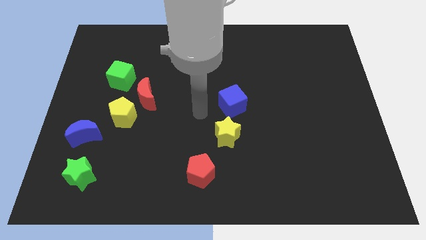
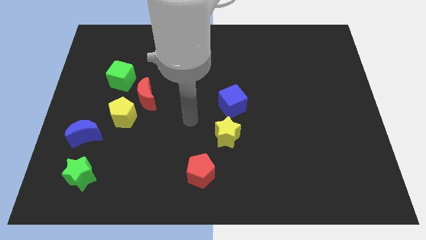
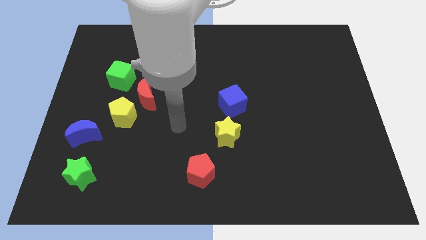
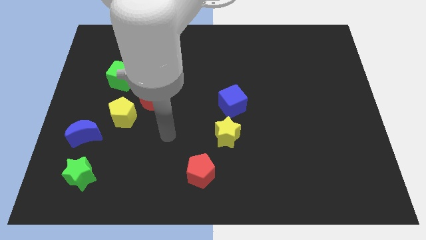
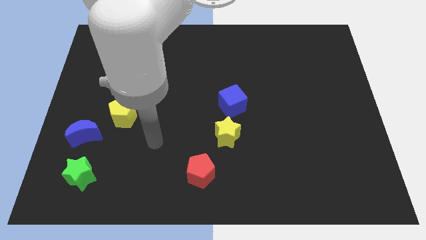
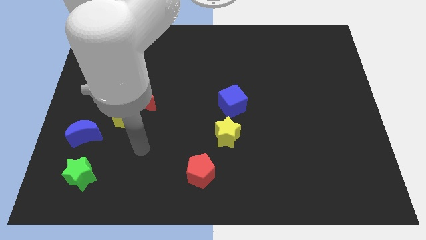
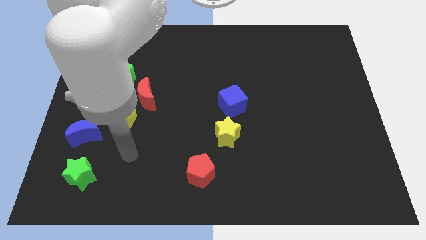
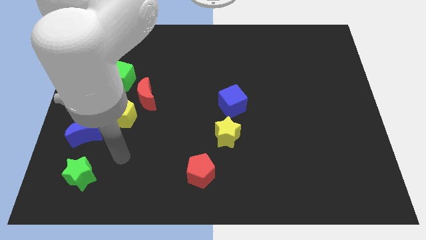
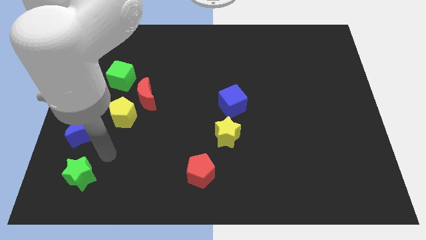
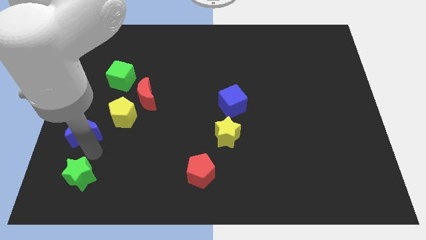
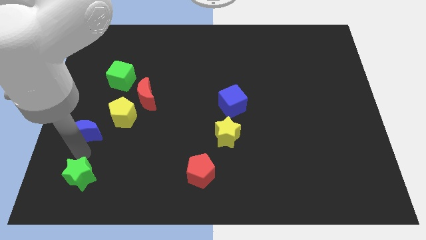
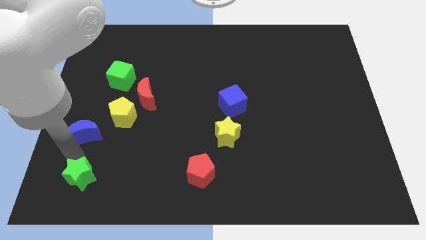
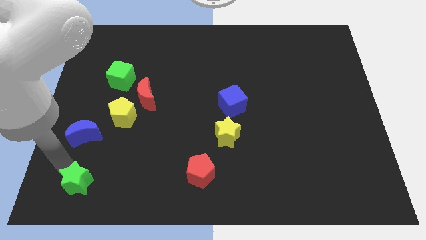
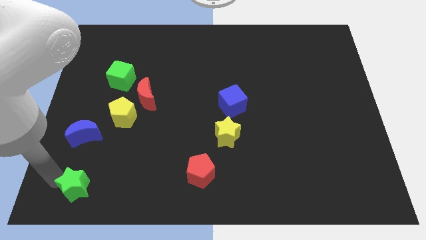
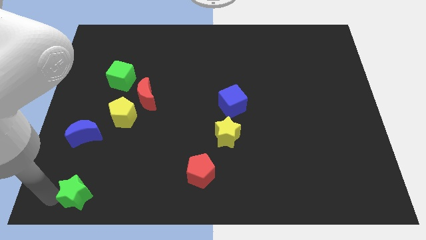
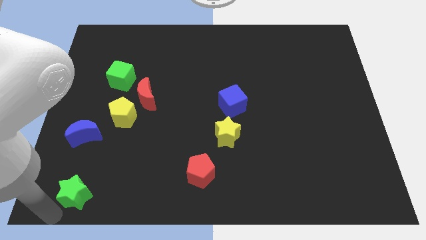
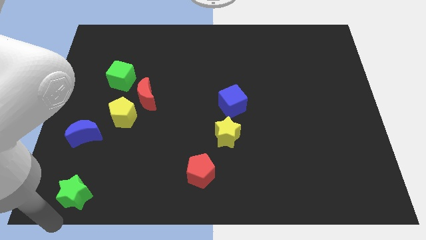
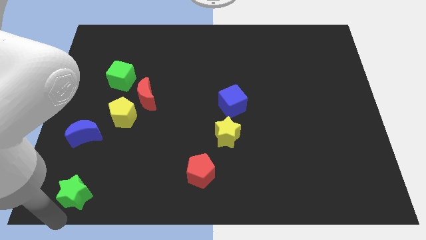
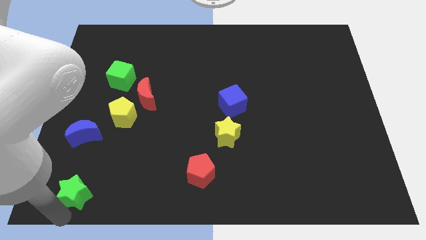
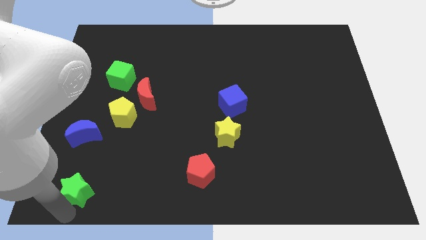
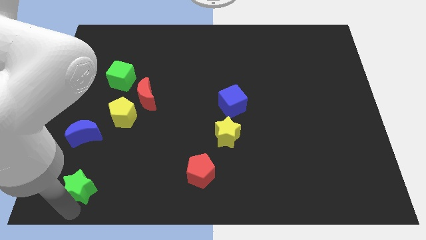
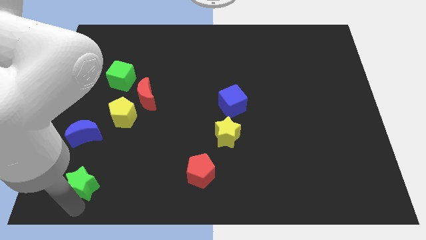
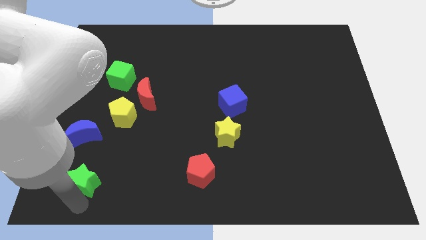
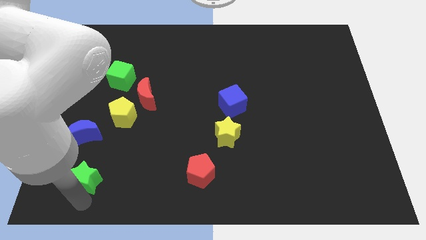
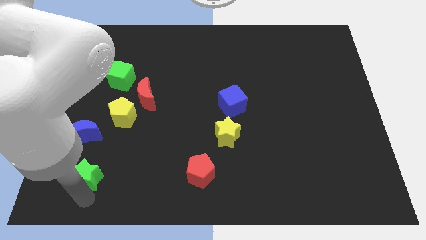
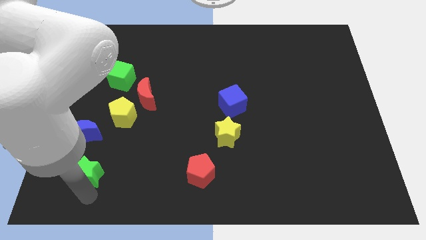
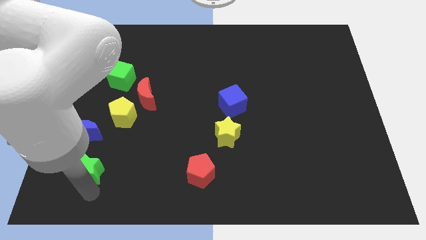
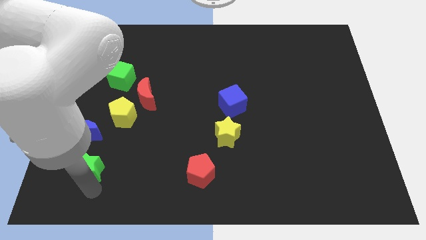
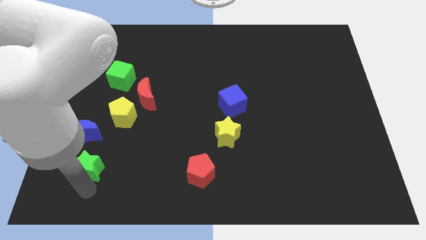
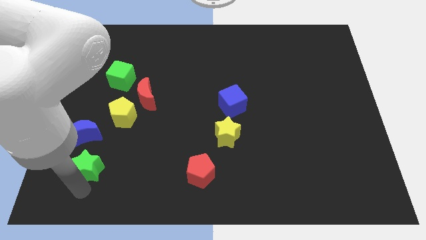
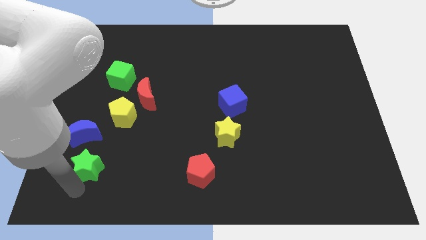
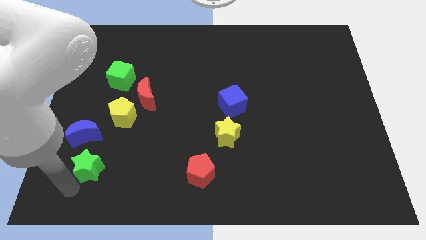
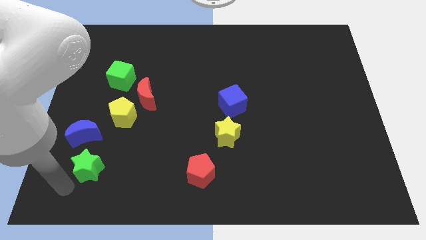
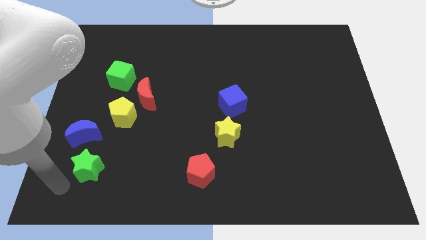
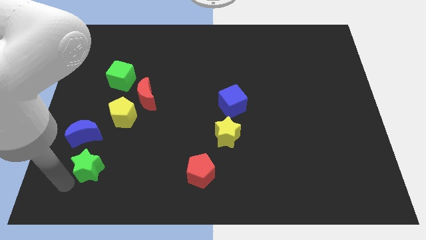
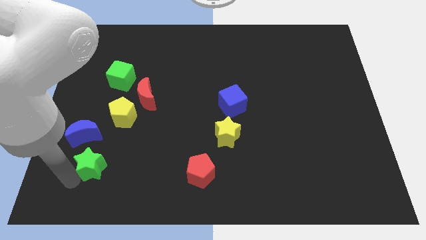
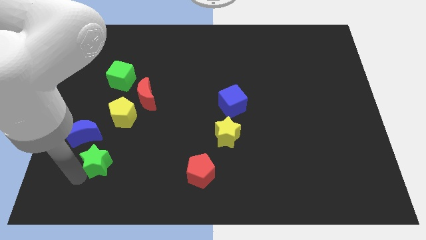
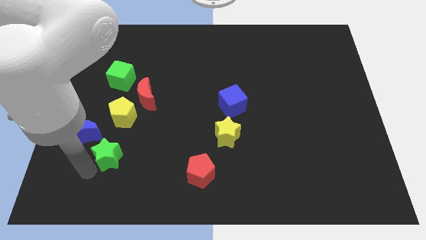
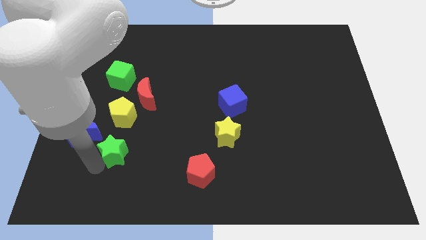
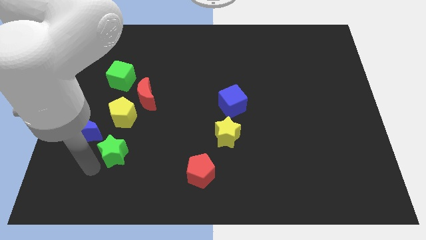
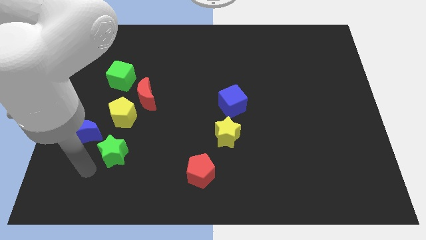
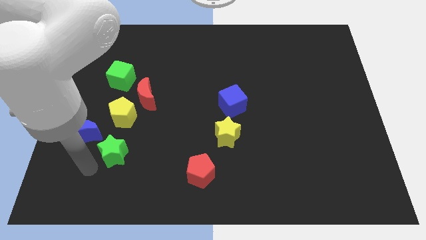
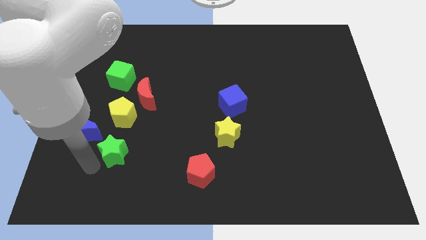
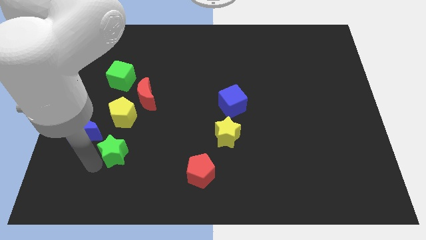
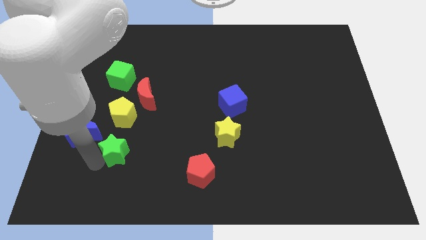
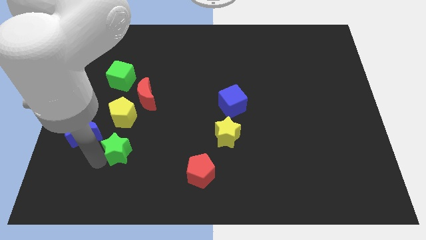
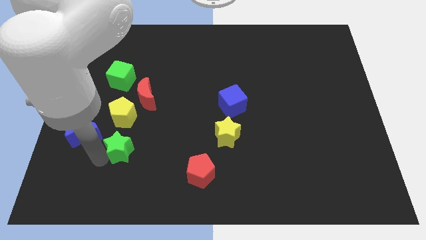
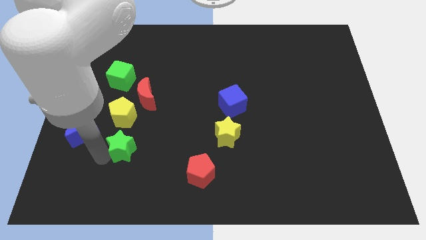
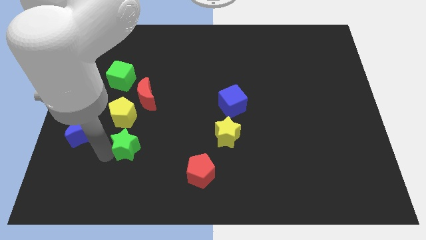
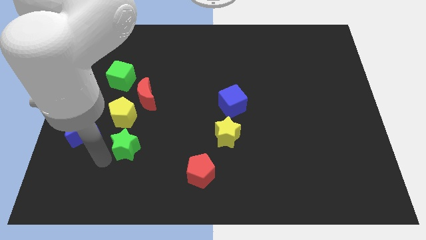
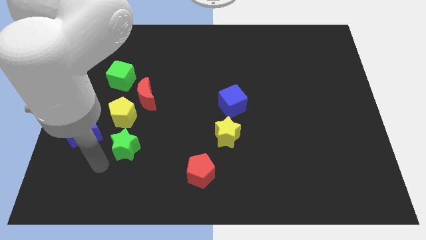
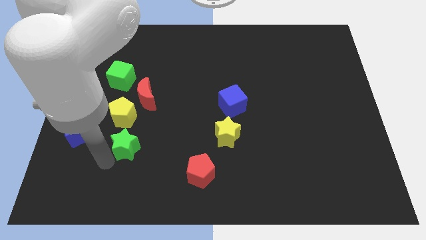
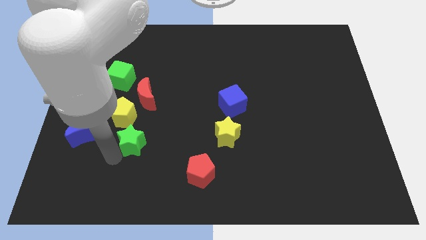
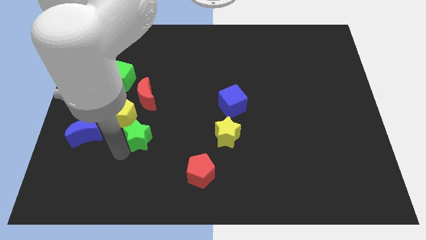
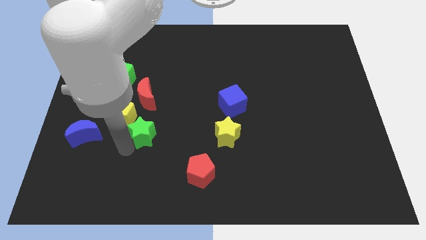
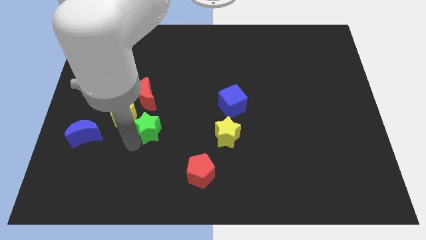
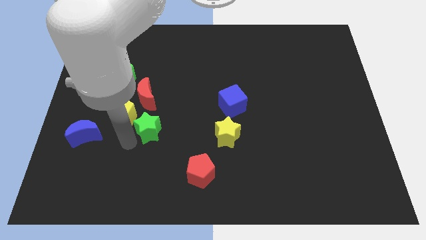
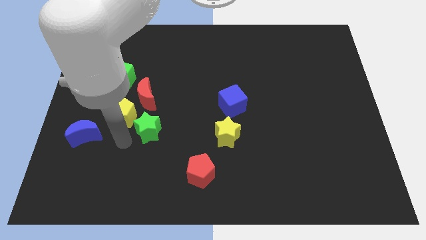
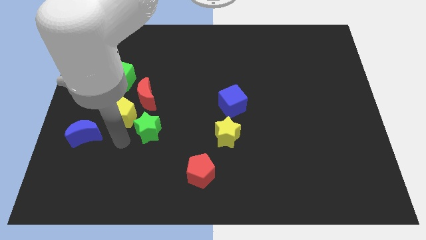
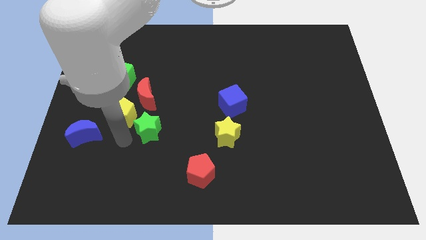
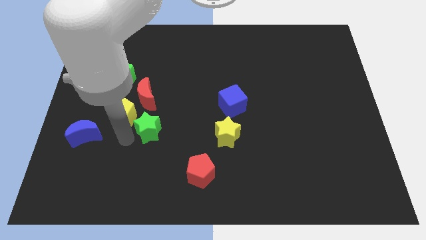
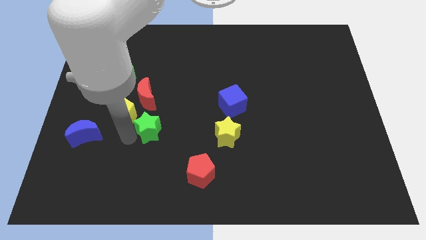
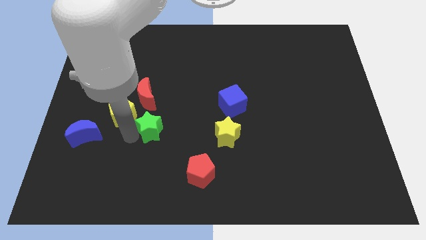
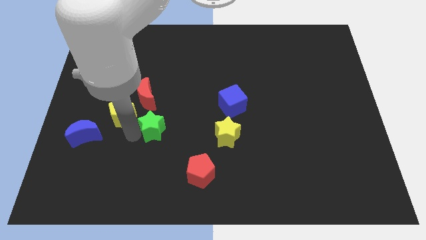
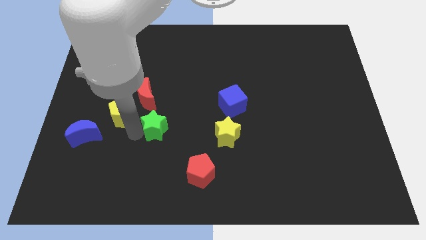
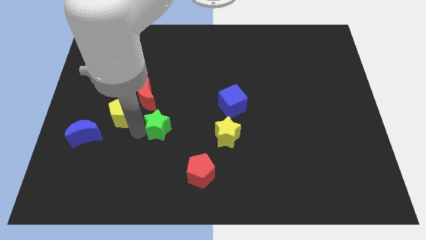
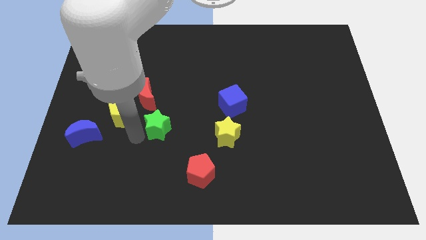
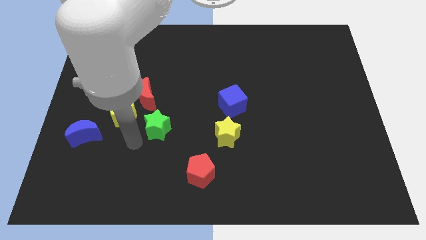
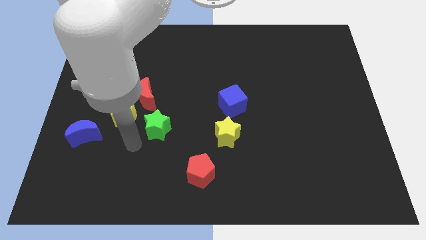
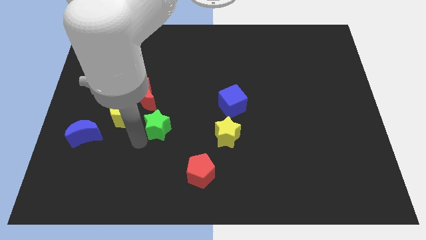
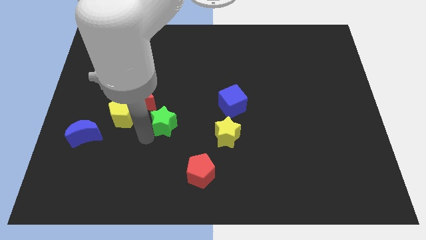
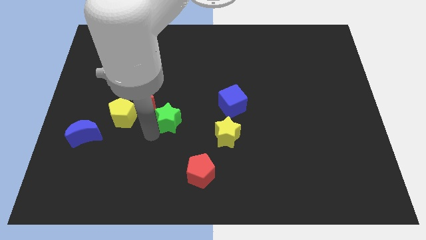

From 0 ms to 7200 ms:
slide the green star to the middle of the board
